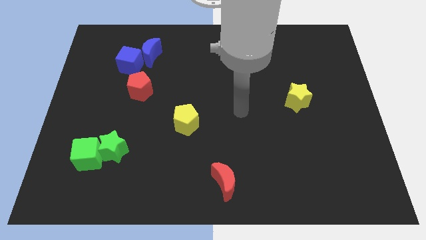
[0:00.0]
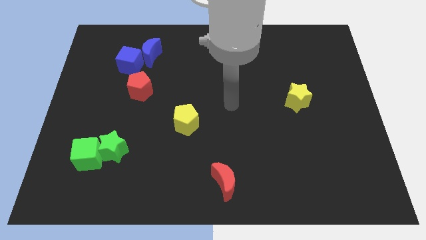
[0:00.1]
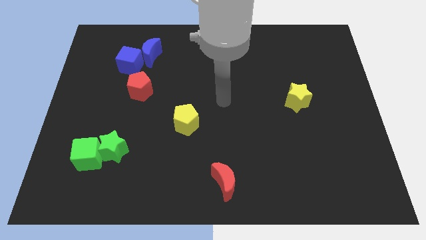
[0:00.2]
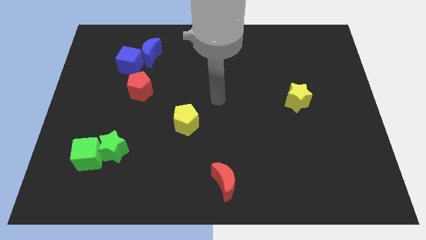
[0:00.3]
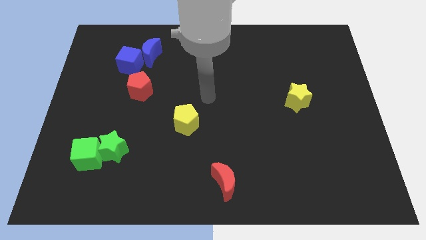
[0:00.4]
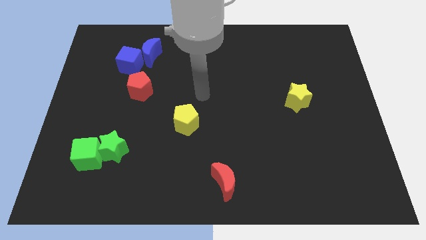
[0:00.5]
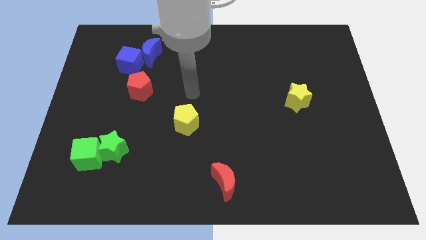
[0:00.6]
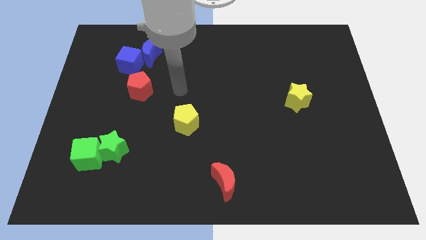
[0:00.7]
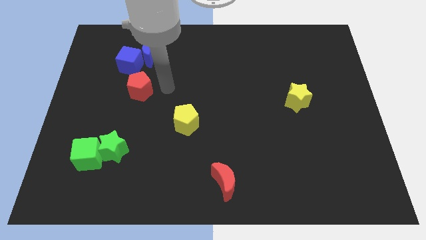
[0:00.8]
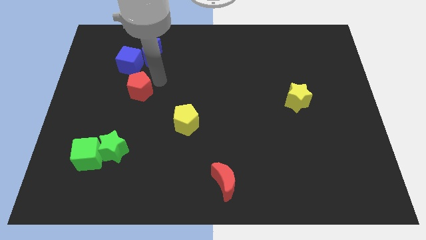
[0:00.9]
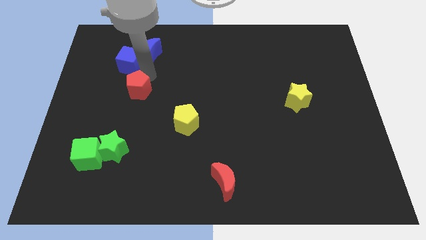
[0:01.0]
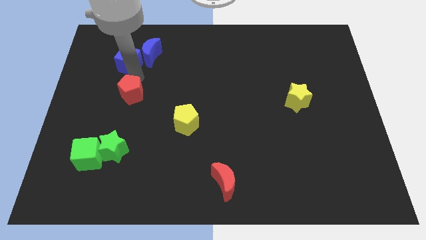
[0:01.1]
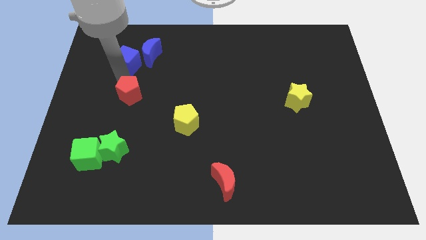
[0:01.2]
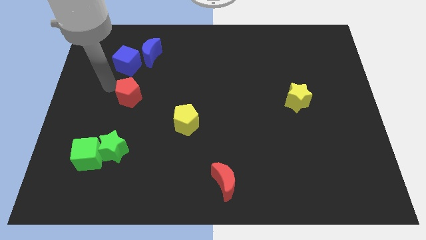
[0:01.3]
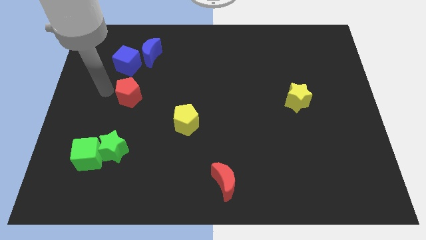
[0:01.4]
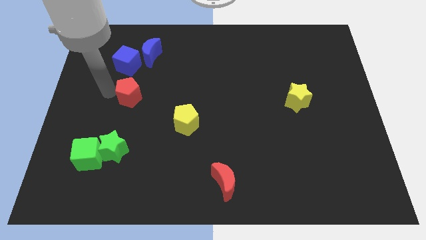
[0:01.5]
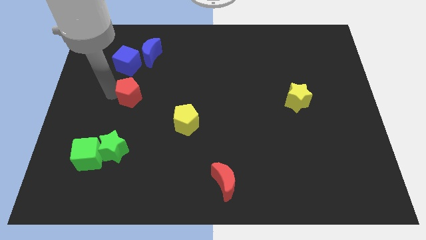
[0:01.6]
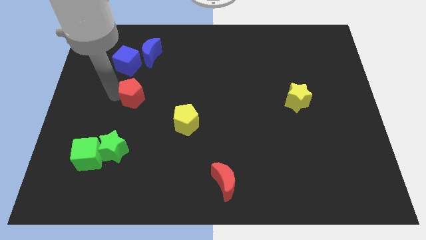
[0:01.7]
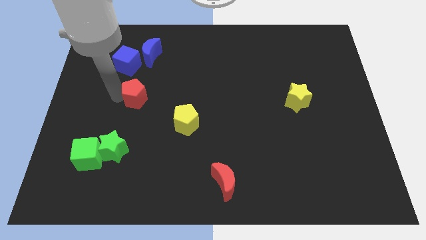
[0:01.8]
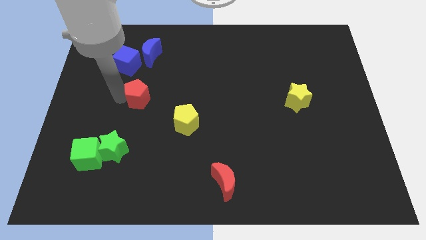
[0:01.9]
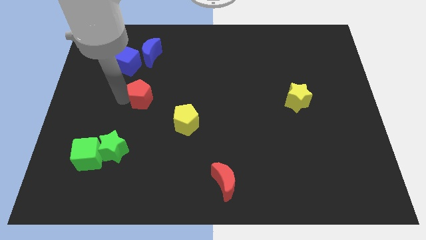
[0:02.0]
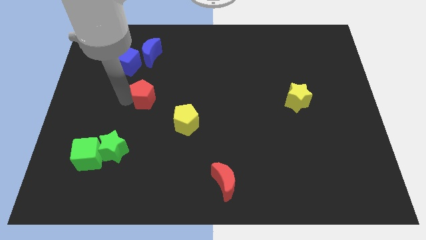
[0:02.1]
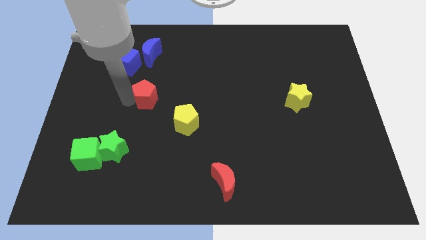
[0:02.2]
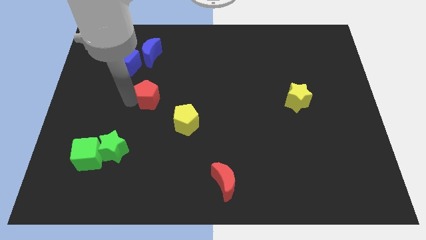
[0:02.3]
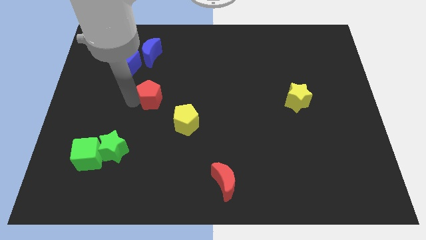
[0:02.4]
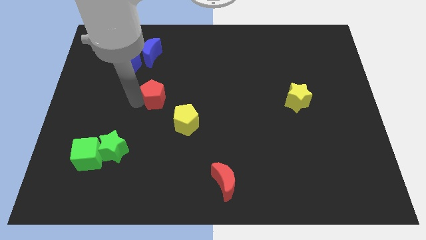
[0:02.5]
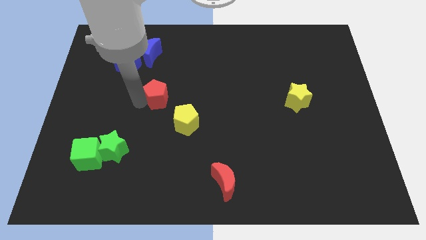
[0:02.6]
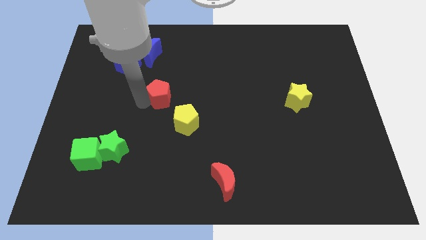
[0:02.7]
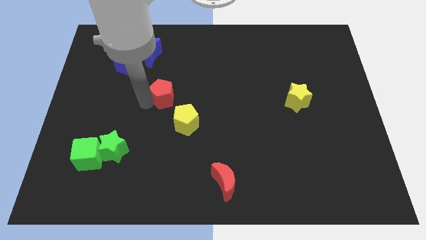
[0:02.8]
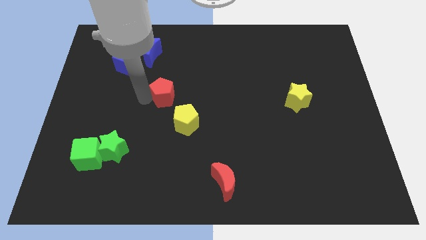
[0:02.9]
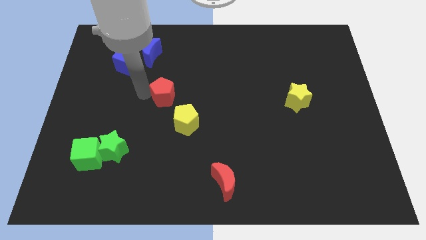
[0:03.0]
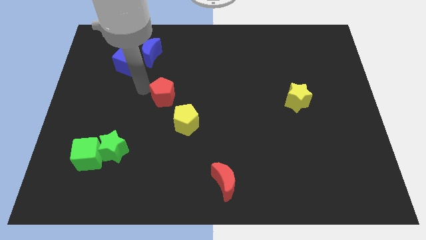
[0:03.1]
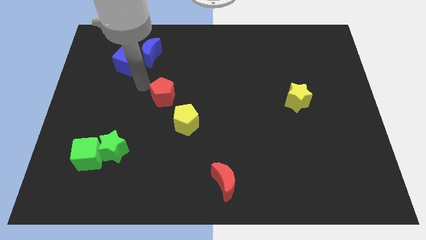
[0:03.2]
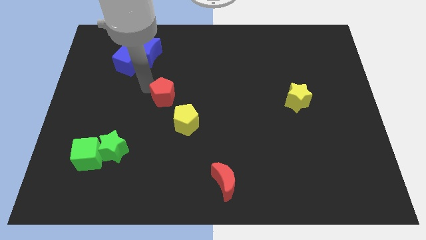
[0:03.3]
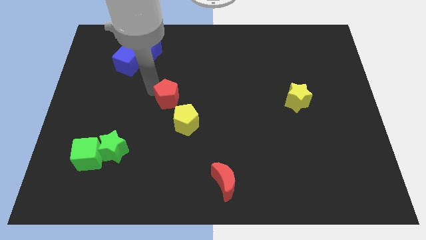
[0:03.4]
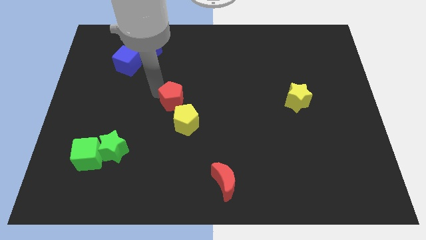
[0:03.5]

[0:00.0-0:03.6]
move the red pentagon down and to the right diagonally slightly

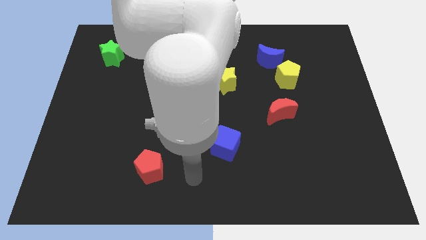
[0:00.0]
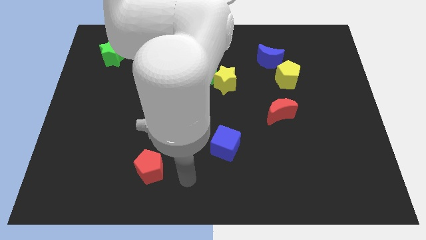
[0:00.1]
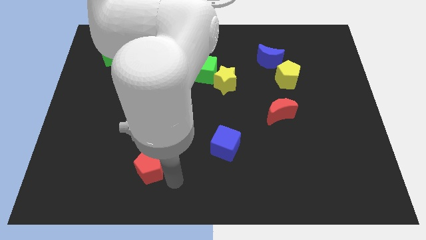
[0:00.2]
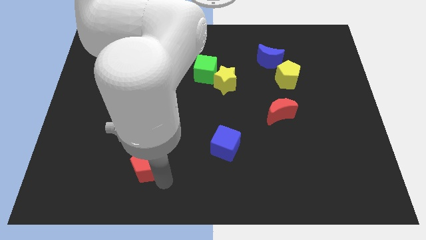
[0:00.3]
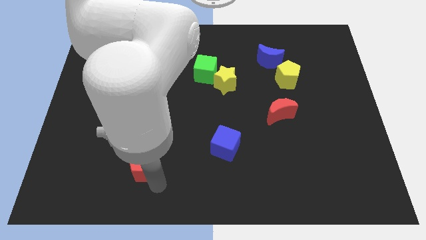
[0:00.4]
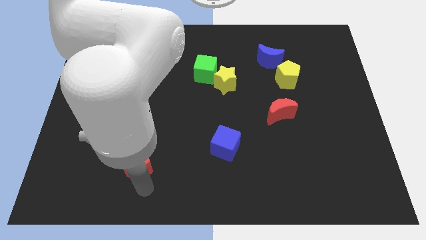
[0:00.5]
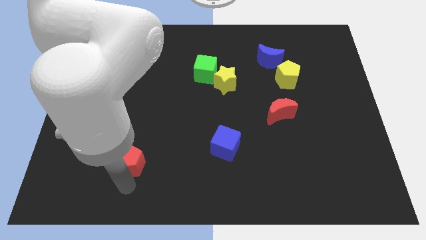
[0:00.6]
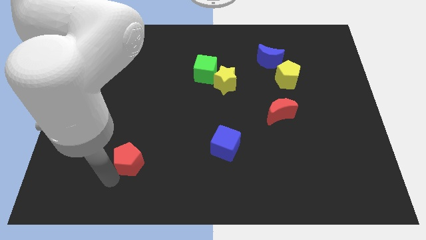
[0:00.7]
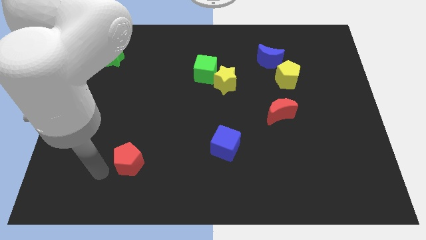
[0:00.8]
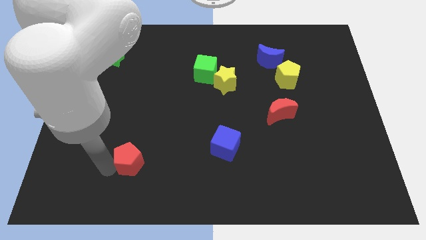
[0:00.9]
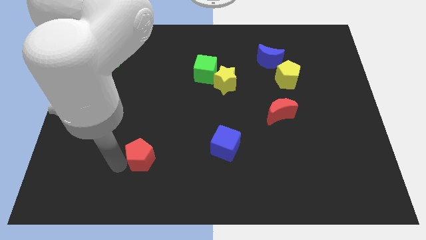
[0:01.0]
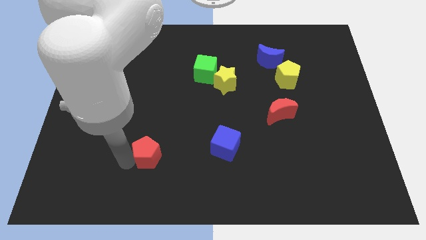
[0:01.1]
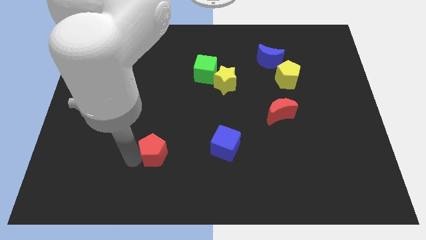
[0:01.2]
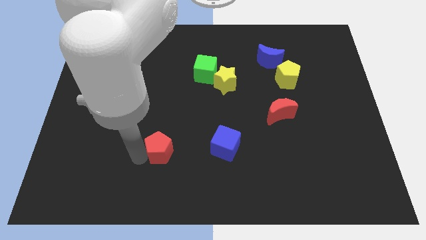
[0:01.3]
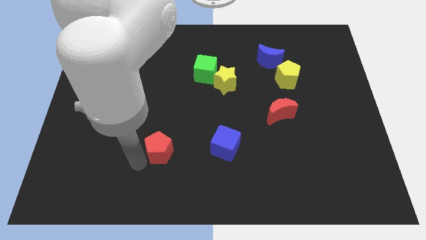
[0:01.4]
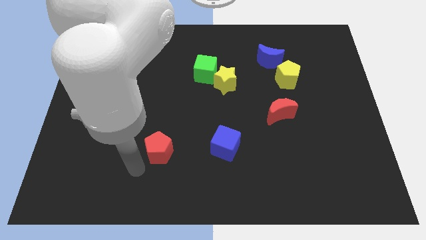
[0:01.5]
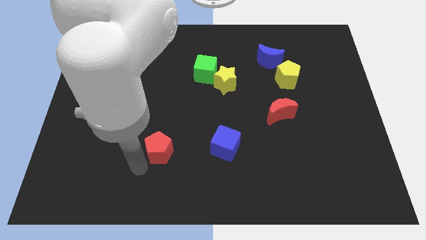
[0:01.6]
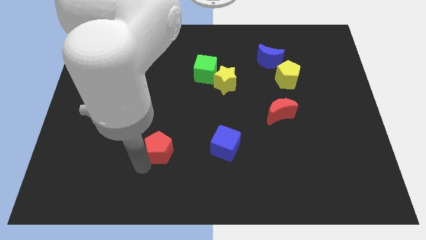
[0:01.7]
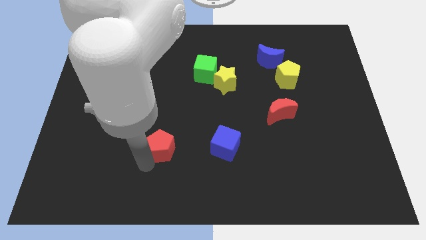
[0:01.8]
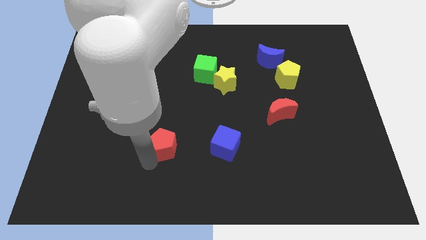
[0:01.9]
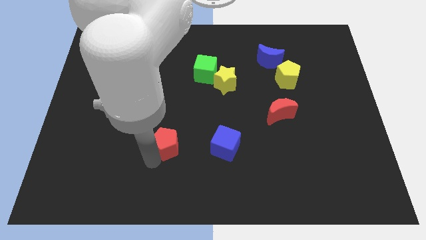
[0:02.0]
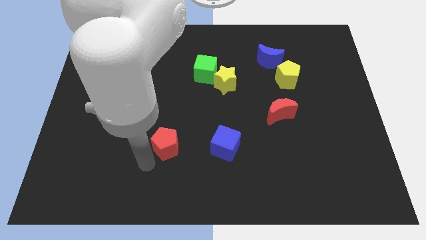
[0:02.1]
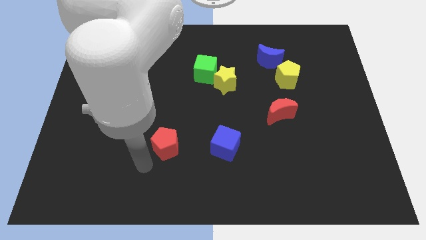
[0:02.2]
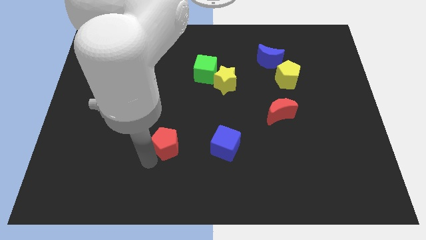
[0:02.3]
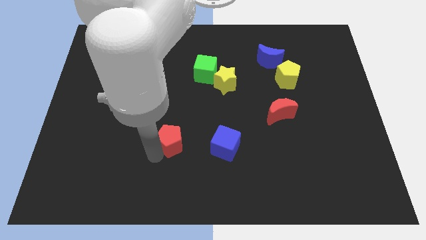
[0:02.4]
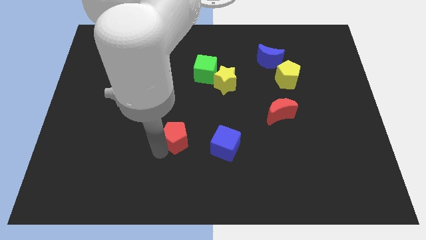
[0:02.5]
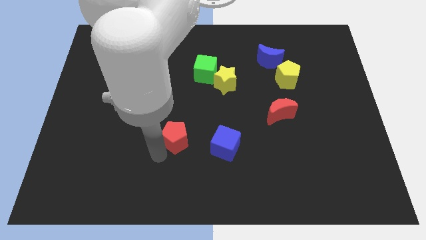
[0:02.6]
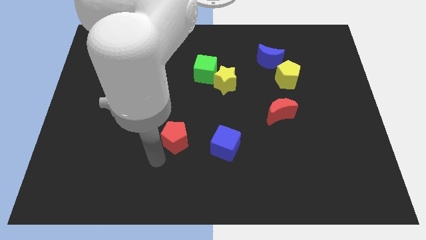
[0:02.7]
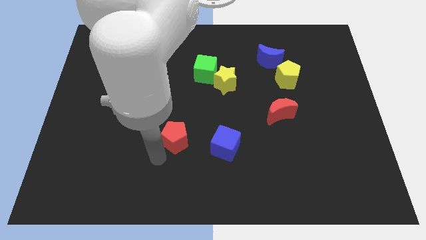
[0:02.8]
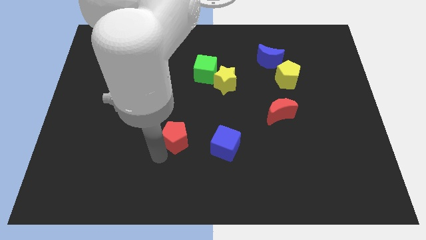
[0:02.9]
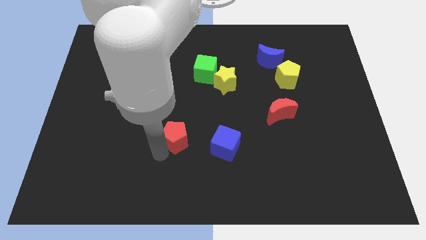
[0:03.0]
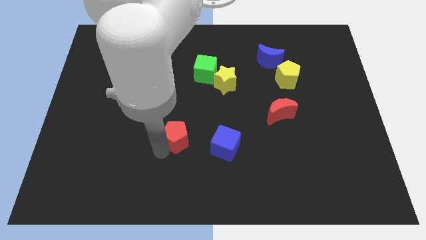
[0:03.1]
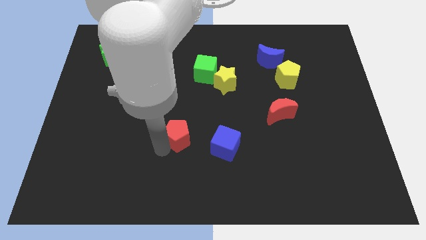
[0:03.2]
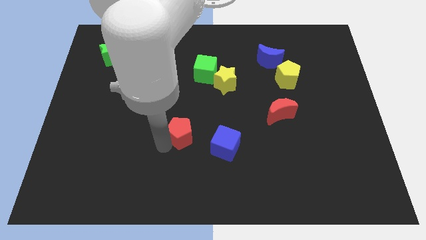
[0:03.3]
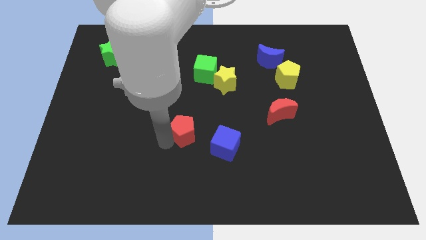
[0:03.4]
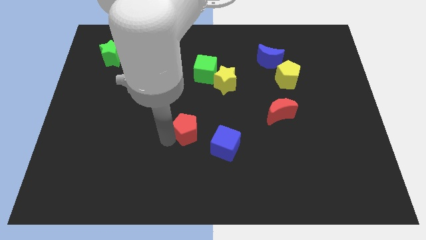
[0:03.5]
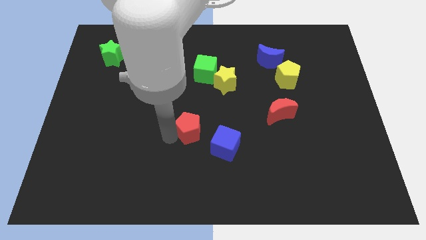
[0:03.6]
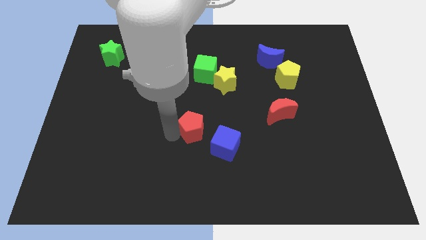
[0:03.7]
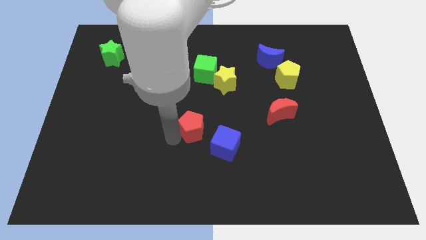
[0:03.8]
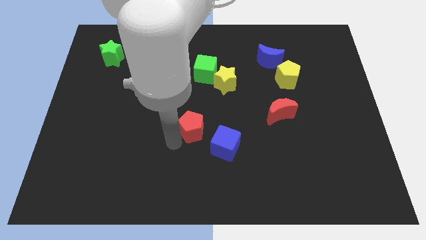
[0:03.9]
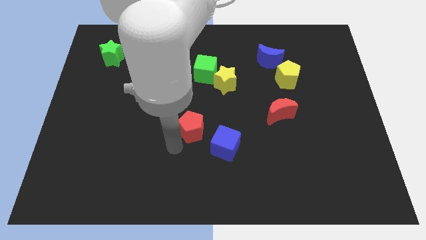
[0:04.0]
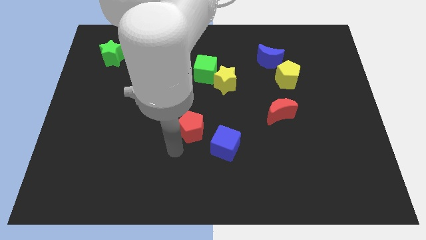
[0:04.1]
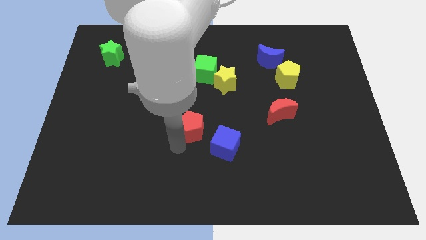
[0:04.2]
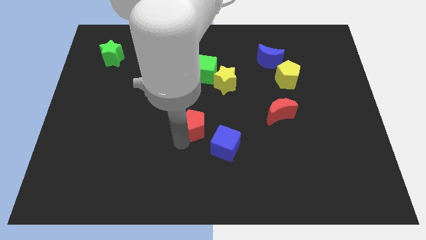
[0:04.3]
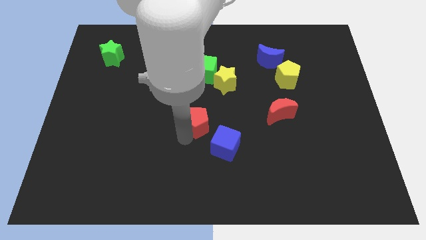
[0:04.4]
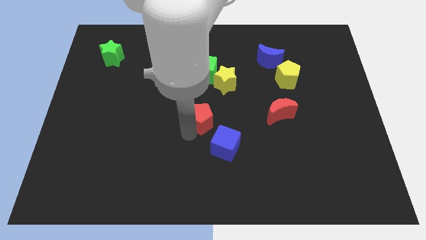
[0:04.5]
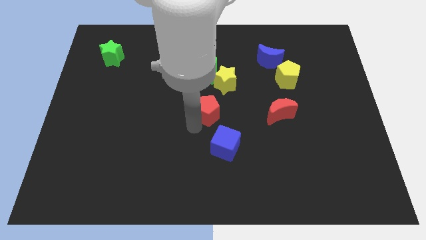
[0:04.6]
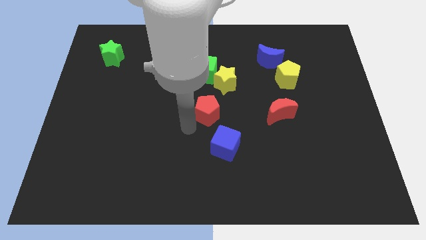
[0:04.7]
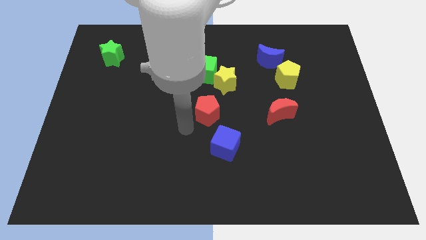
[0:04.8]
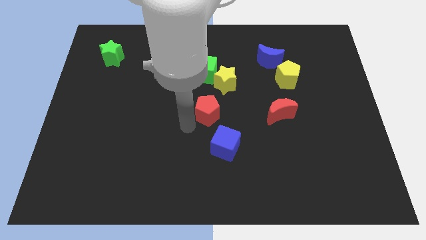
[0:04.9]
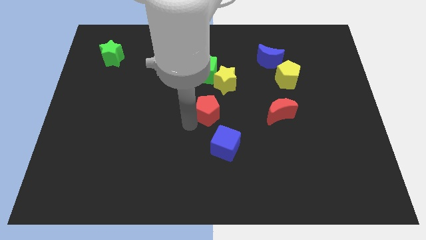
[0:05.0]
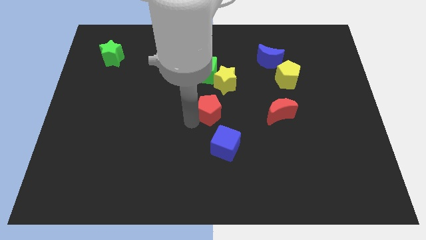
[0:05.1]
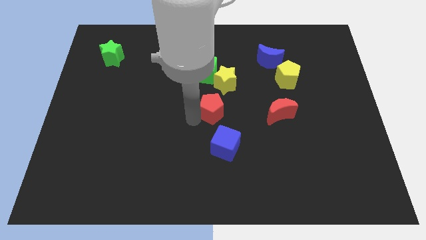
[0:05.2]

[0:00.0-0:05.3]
slide the red pentagon up and right
